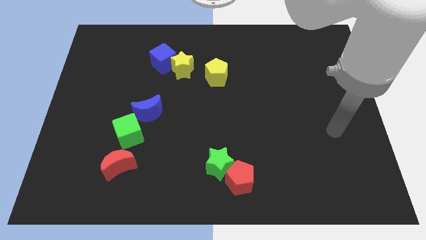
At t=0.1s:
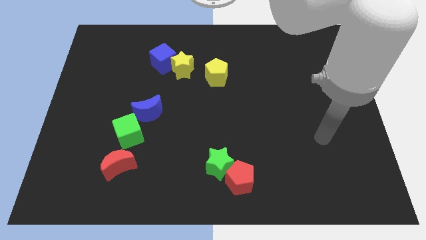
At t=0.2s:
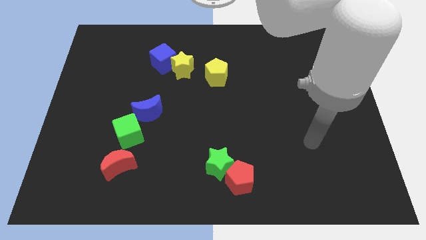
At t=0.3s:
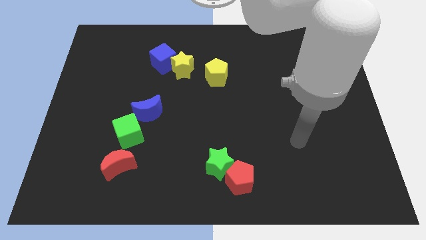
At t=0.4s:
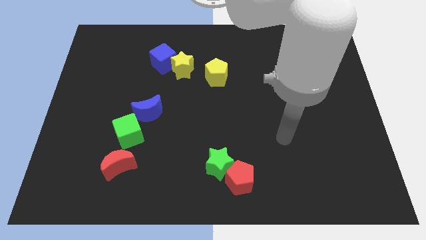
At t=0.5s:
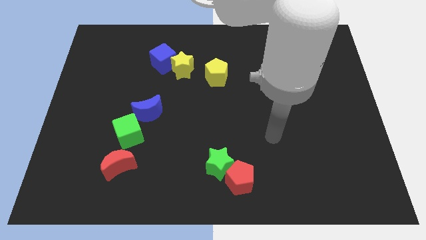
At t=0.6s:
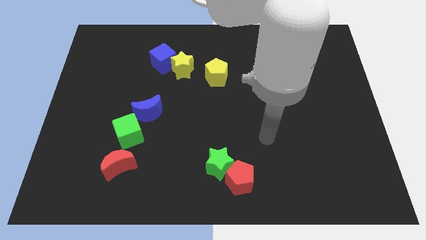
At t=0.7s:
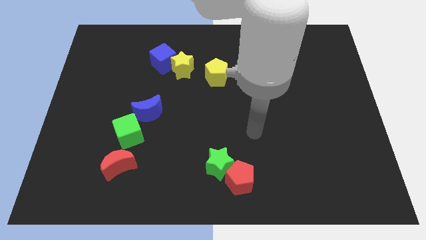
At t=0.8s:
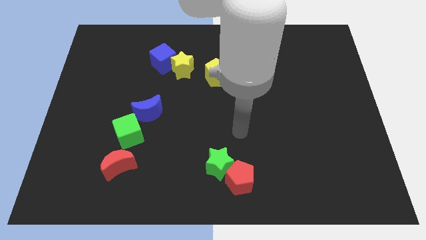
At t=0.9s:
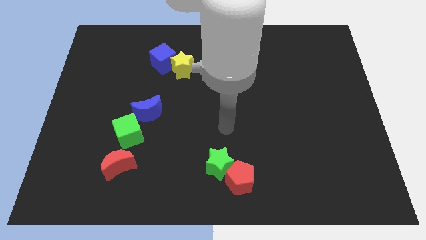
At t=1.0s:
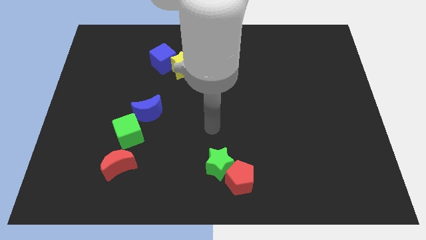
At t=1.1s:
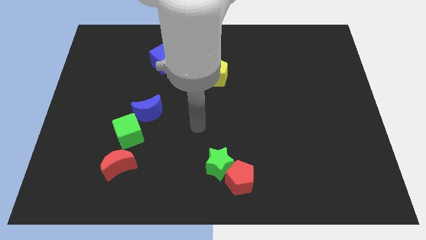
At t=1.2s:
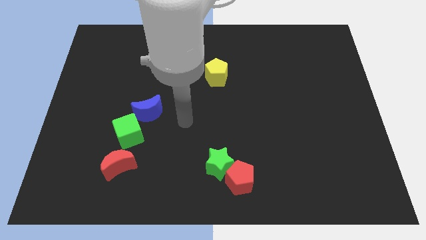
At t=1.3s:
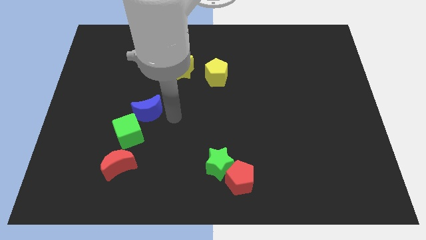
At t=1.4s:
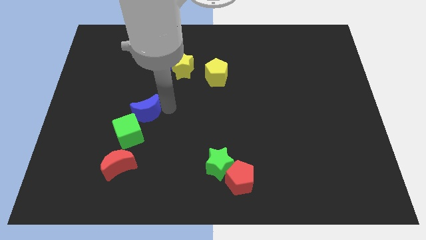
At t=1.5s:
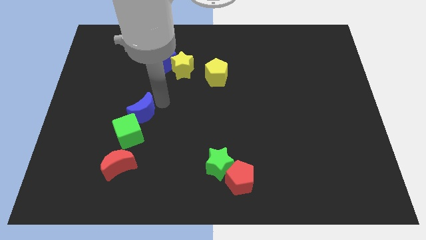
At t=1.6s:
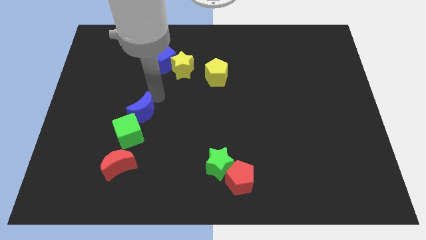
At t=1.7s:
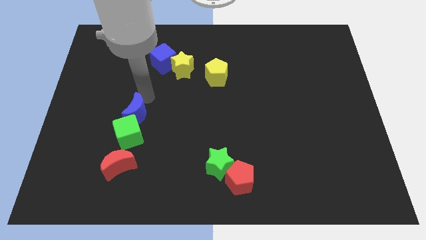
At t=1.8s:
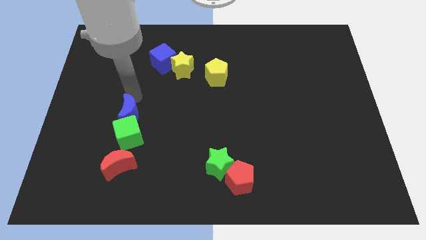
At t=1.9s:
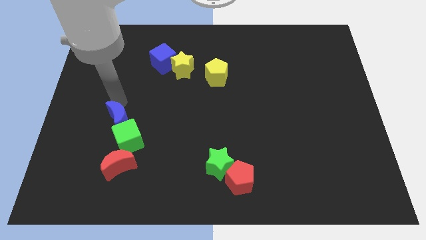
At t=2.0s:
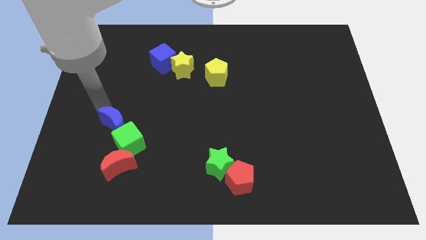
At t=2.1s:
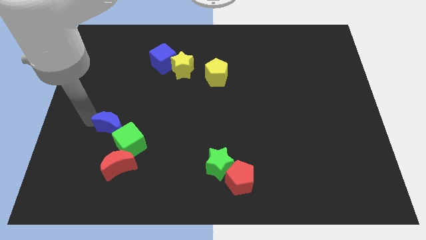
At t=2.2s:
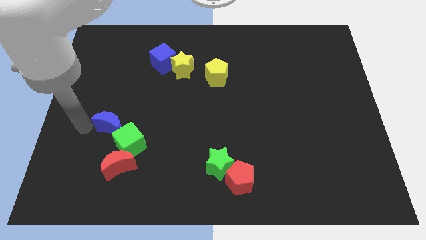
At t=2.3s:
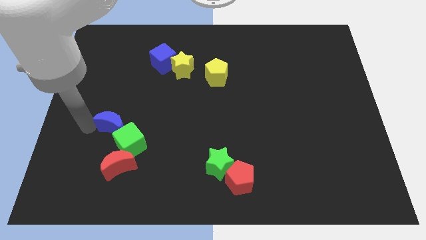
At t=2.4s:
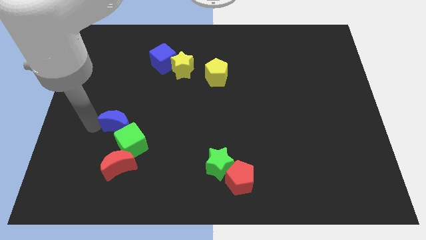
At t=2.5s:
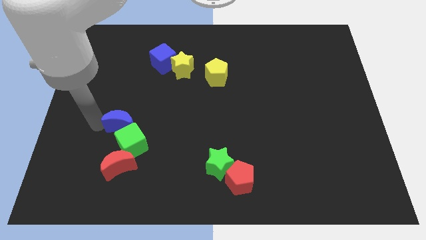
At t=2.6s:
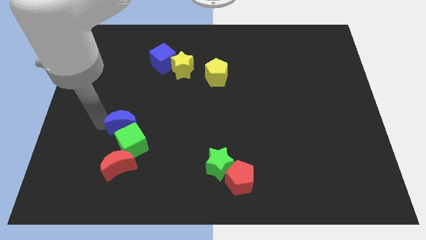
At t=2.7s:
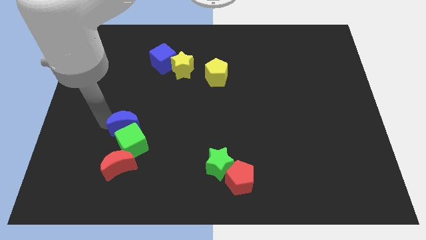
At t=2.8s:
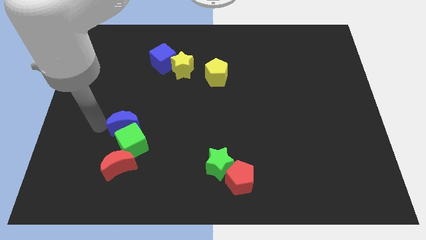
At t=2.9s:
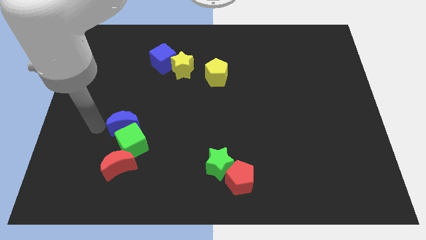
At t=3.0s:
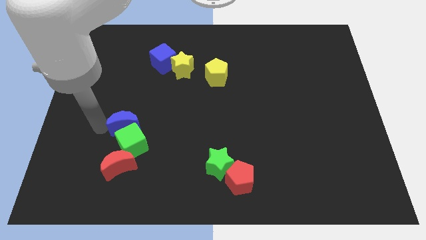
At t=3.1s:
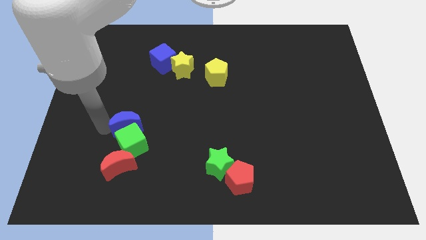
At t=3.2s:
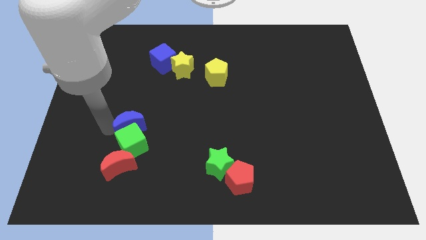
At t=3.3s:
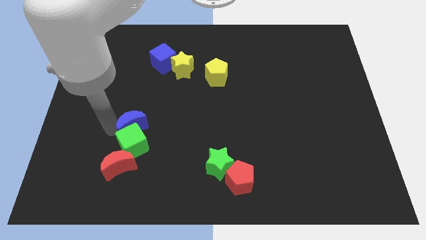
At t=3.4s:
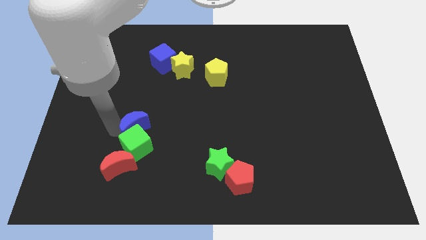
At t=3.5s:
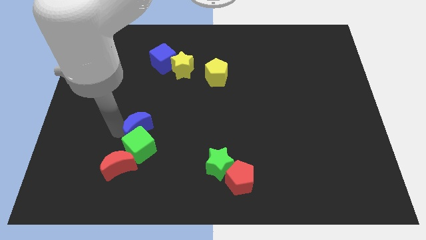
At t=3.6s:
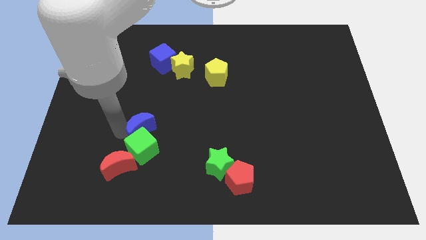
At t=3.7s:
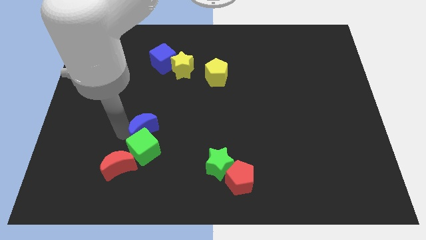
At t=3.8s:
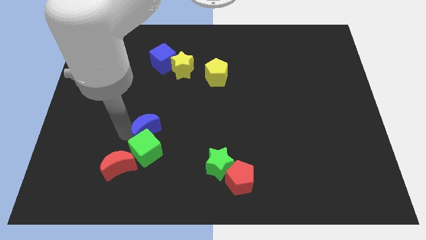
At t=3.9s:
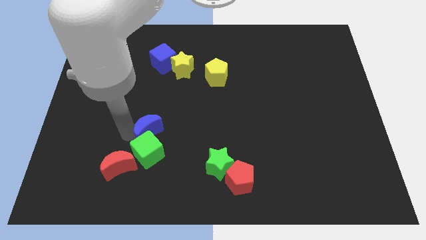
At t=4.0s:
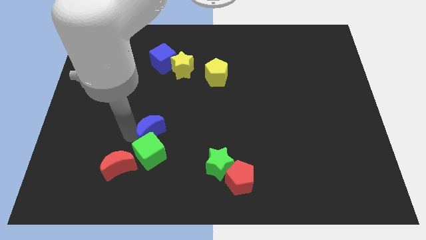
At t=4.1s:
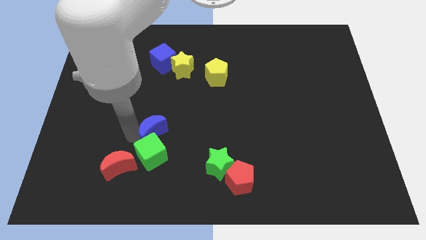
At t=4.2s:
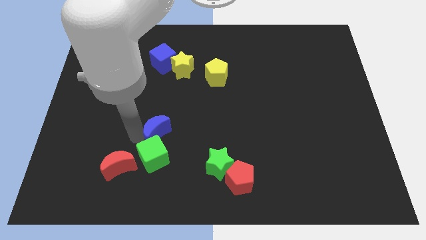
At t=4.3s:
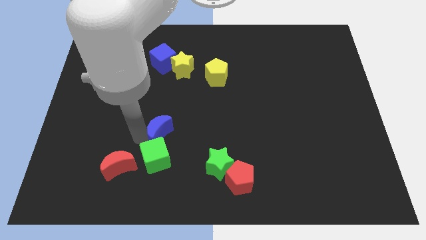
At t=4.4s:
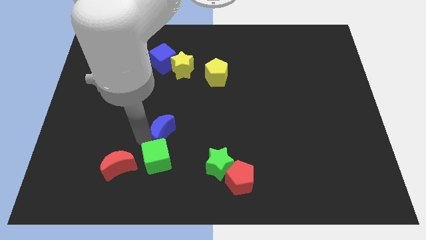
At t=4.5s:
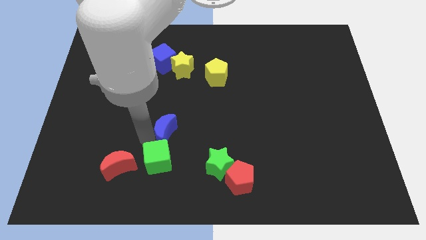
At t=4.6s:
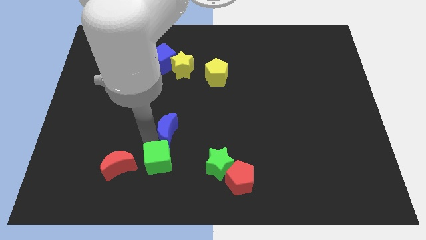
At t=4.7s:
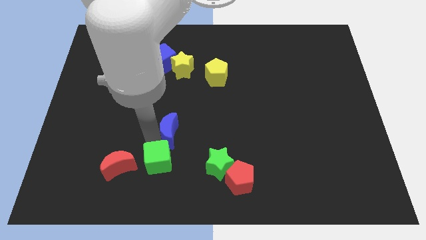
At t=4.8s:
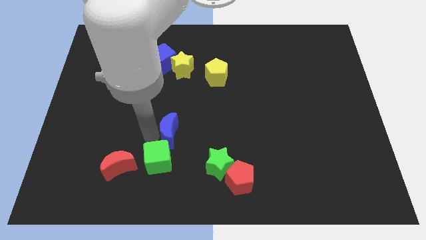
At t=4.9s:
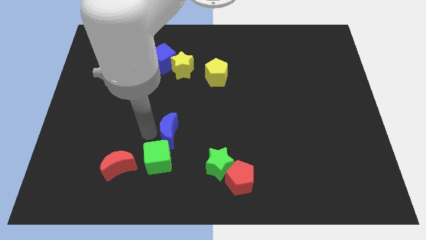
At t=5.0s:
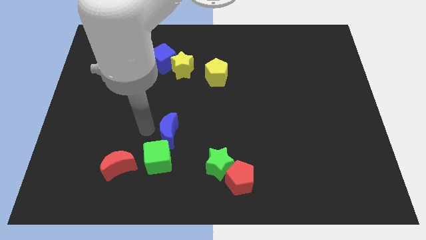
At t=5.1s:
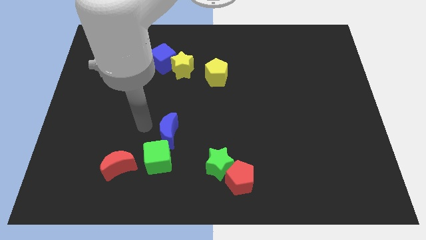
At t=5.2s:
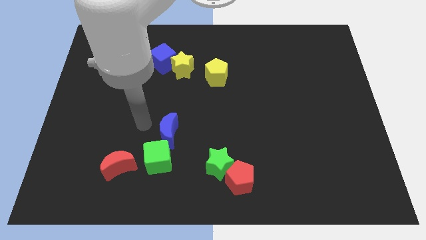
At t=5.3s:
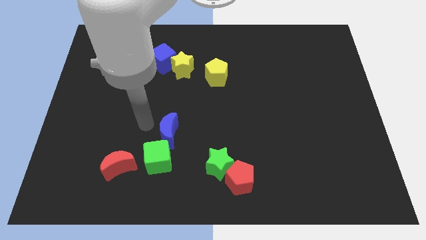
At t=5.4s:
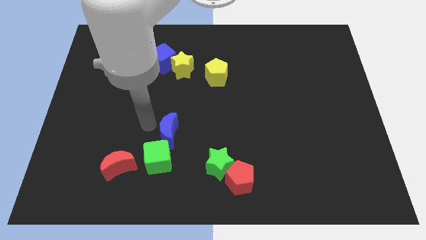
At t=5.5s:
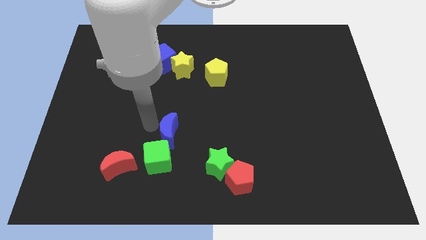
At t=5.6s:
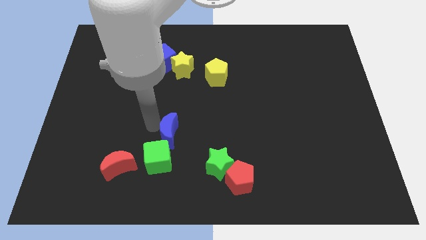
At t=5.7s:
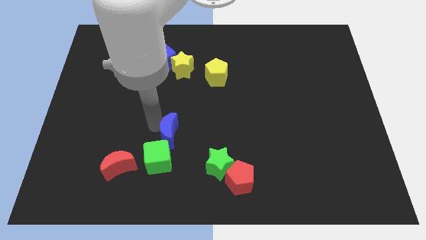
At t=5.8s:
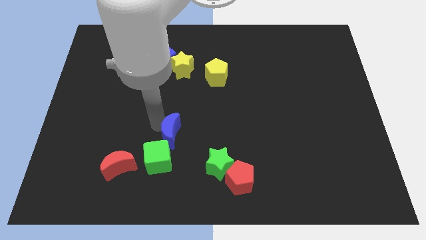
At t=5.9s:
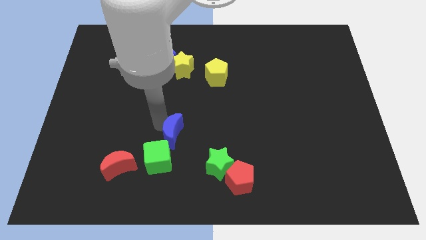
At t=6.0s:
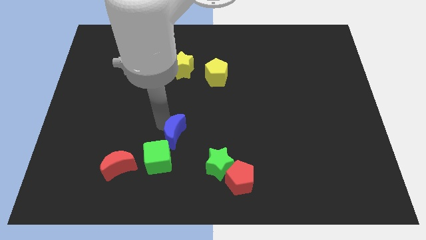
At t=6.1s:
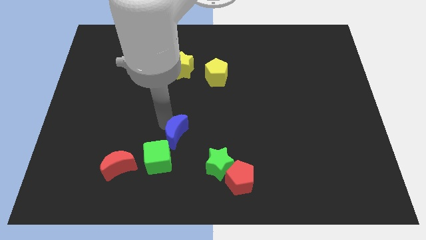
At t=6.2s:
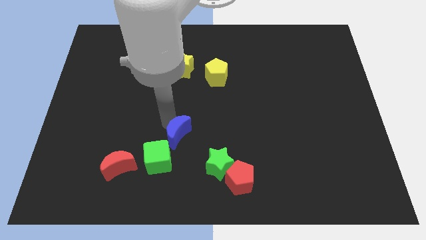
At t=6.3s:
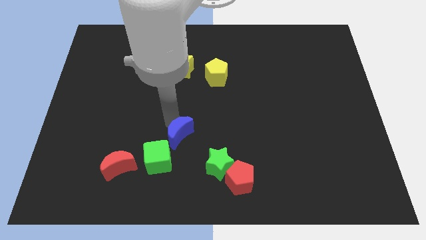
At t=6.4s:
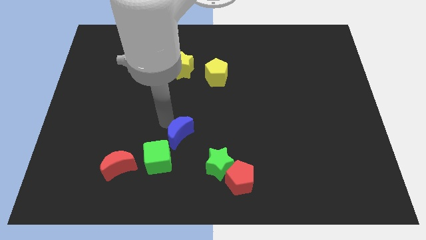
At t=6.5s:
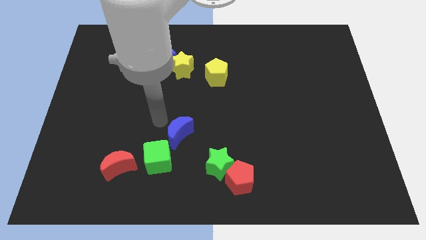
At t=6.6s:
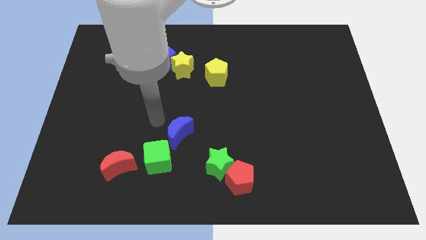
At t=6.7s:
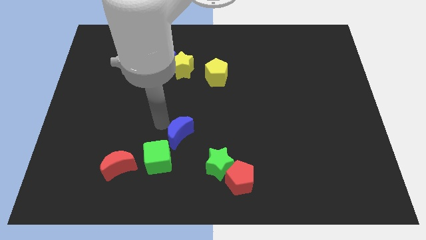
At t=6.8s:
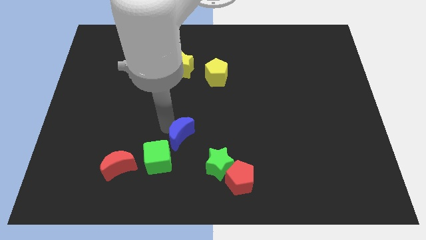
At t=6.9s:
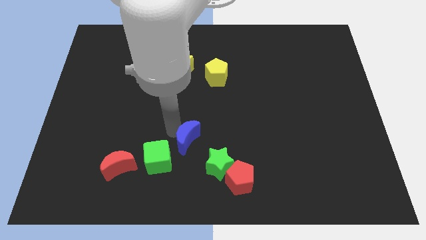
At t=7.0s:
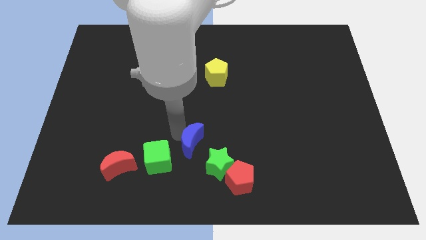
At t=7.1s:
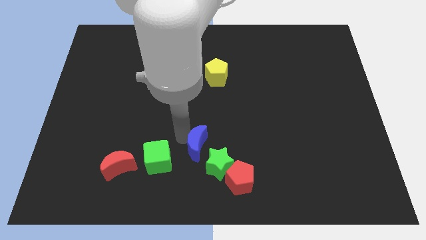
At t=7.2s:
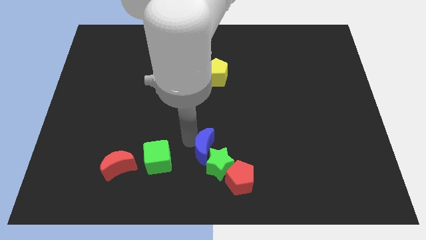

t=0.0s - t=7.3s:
put the blue moon towards the green star
